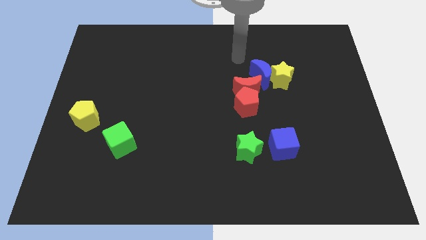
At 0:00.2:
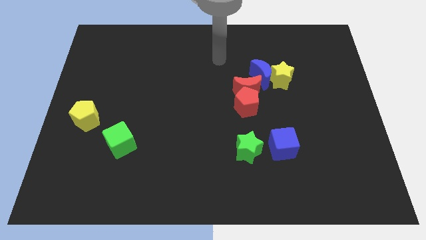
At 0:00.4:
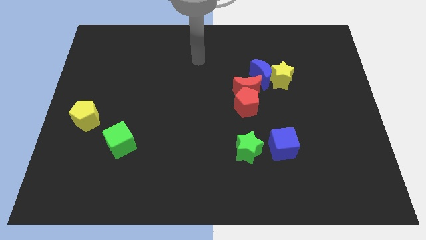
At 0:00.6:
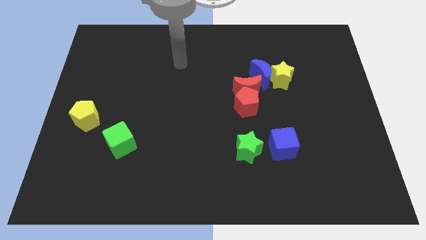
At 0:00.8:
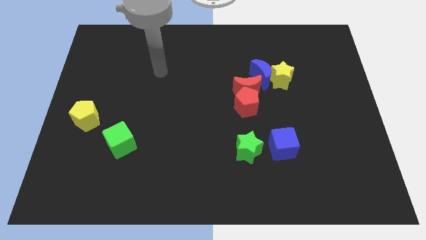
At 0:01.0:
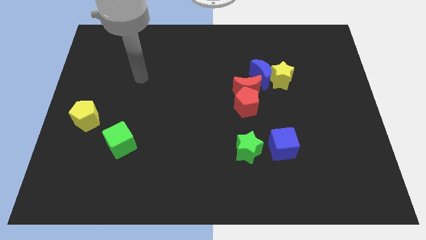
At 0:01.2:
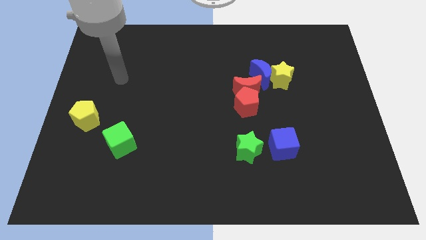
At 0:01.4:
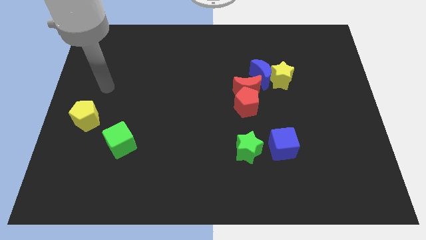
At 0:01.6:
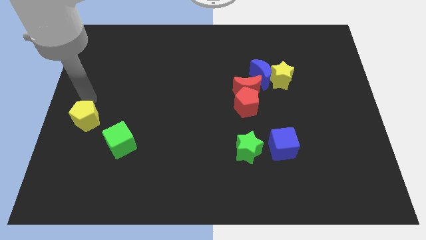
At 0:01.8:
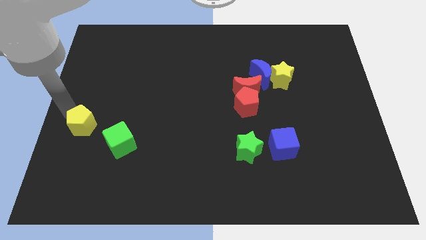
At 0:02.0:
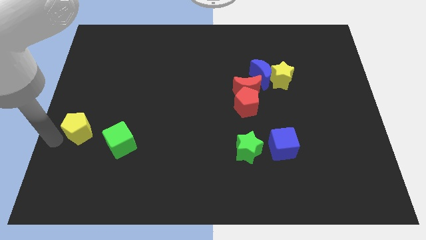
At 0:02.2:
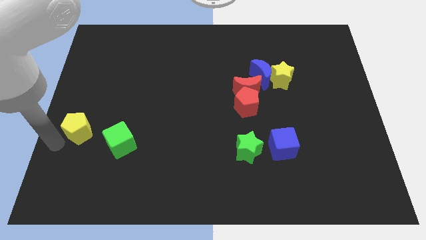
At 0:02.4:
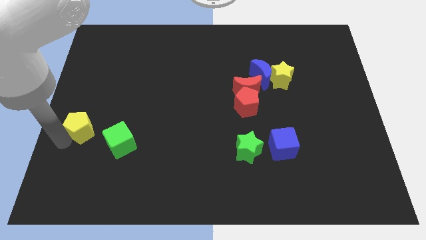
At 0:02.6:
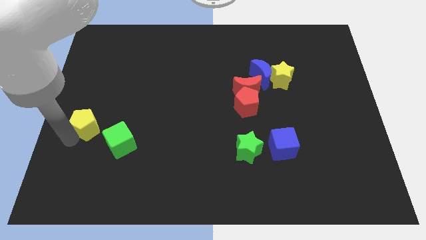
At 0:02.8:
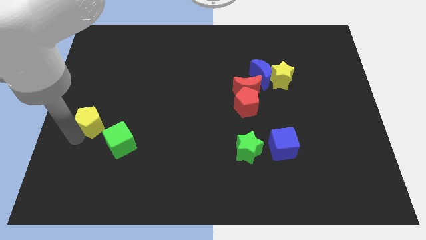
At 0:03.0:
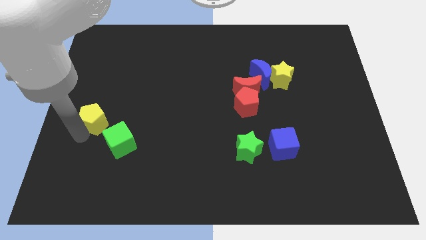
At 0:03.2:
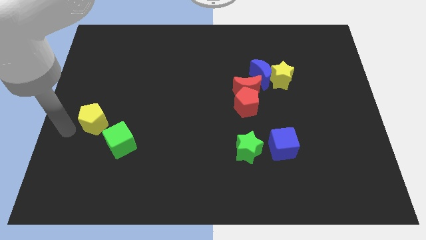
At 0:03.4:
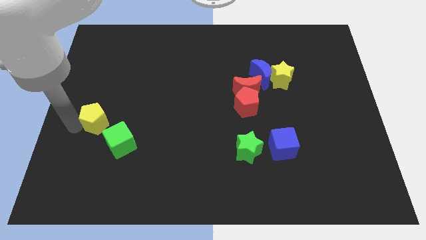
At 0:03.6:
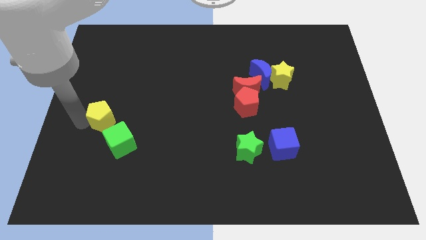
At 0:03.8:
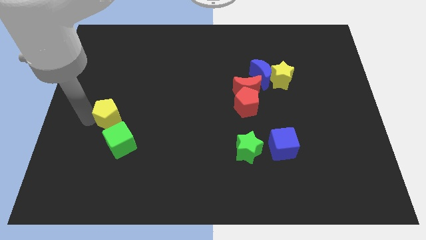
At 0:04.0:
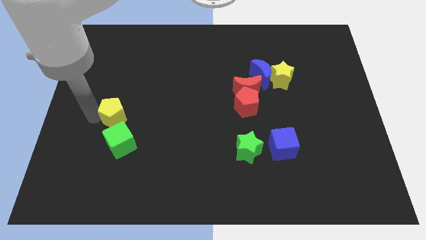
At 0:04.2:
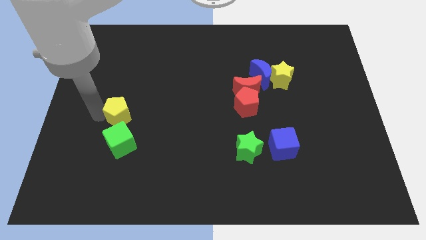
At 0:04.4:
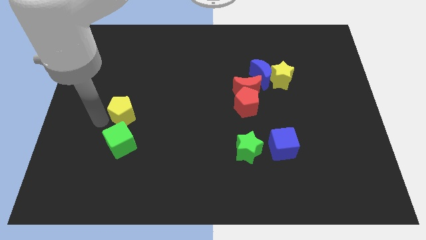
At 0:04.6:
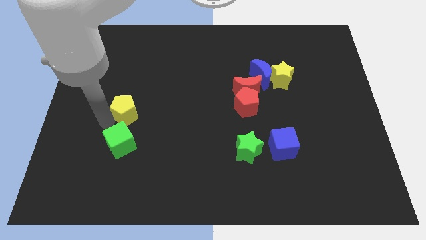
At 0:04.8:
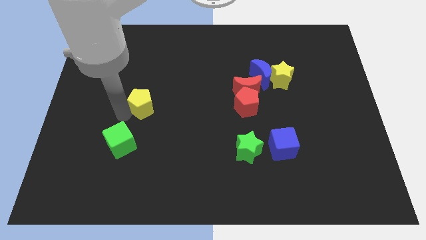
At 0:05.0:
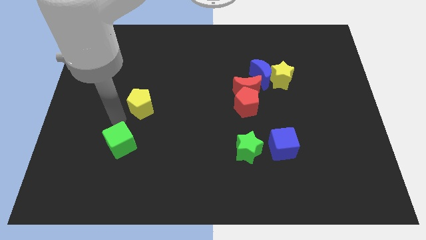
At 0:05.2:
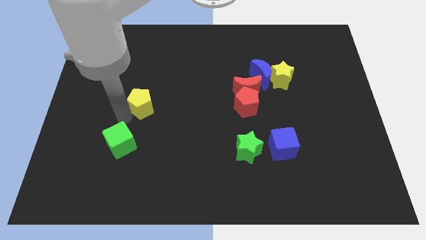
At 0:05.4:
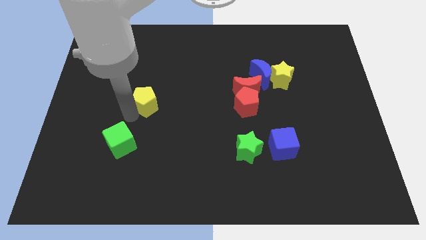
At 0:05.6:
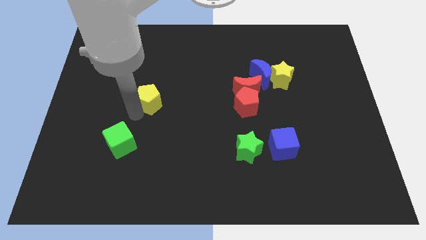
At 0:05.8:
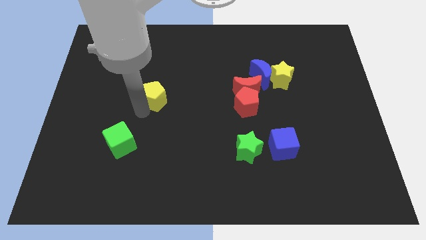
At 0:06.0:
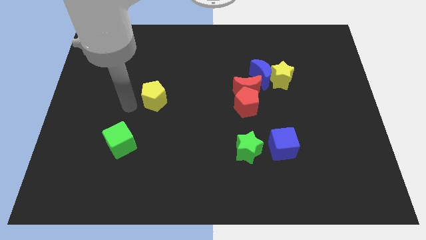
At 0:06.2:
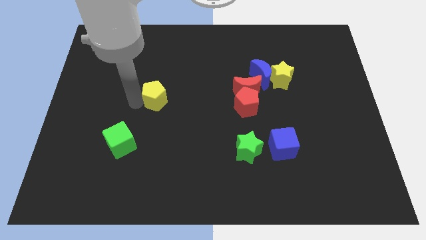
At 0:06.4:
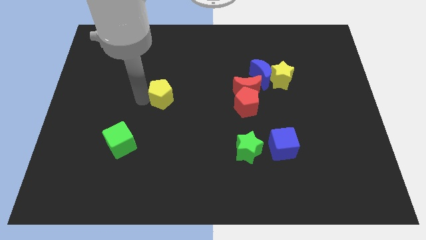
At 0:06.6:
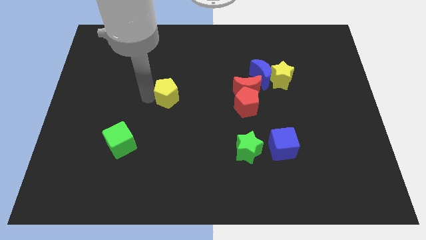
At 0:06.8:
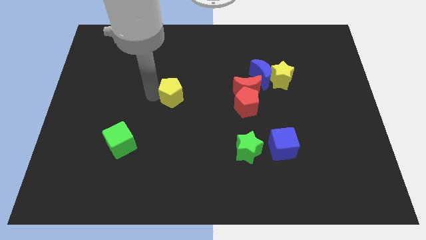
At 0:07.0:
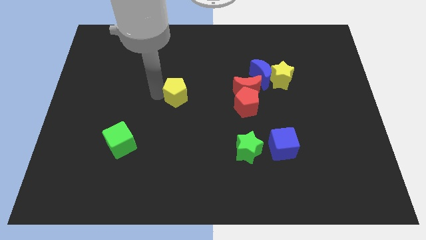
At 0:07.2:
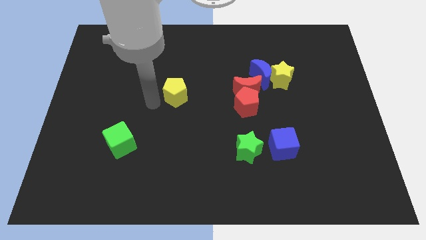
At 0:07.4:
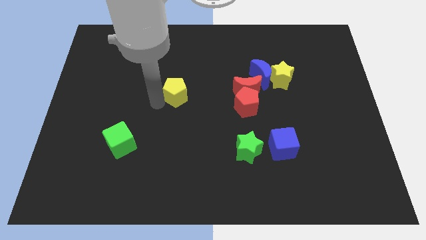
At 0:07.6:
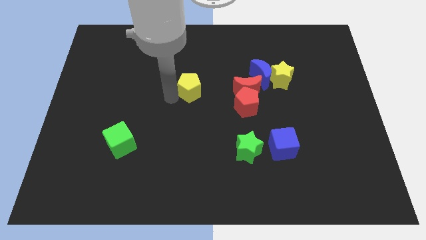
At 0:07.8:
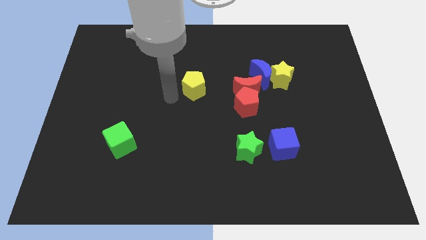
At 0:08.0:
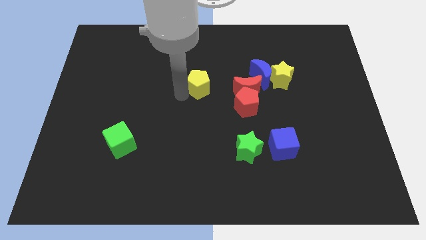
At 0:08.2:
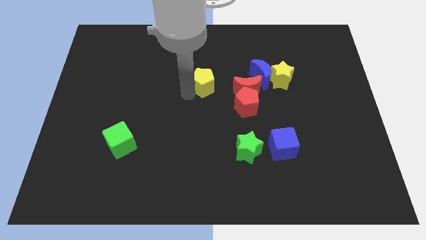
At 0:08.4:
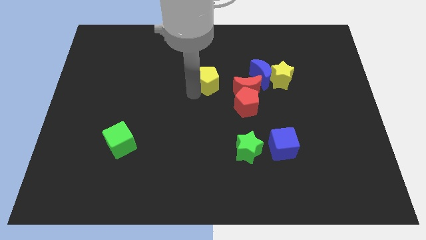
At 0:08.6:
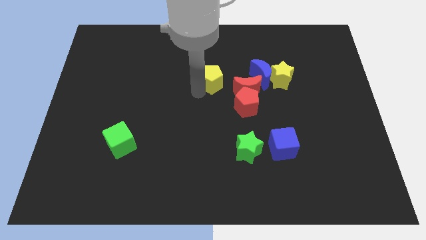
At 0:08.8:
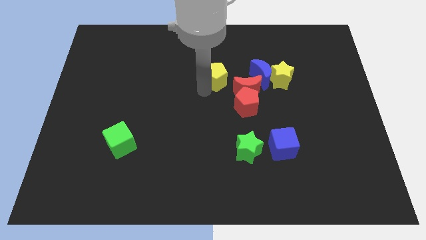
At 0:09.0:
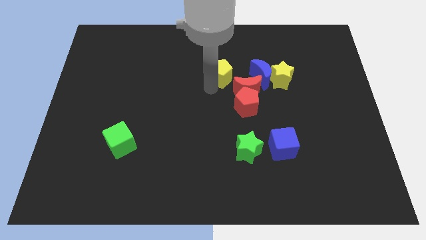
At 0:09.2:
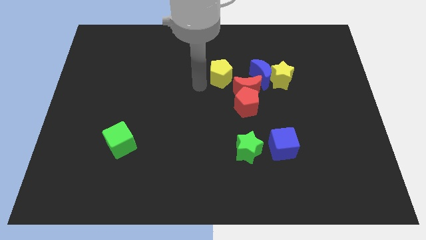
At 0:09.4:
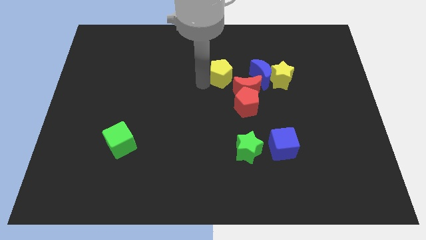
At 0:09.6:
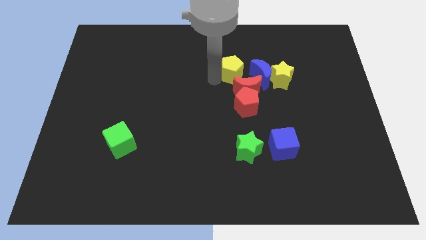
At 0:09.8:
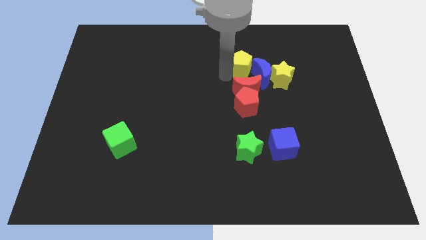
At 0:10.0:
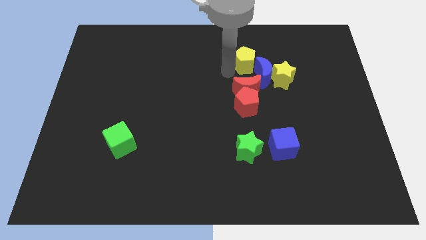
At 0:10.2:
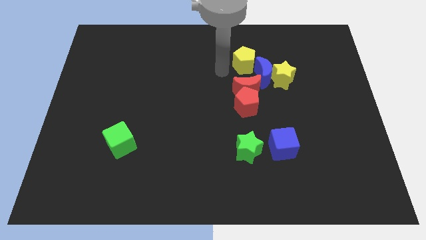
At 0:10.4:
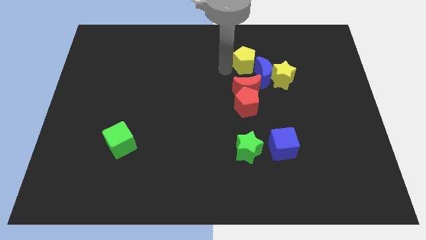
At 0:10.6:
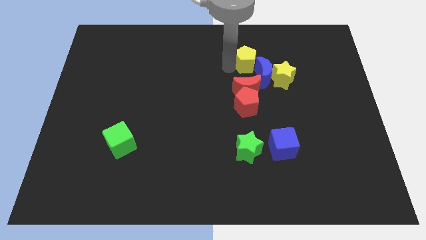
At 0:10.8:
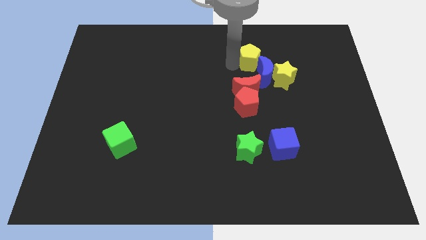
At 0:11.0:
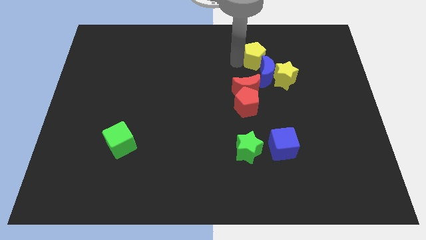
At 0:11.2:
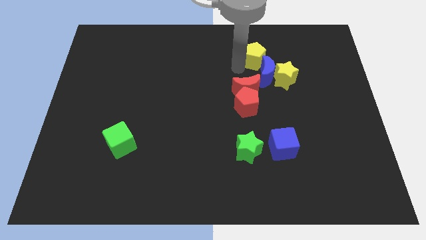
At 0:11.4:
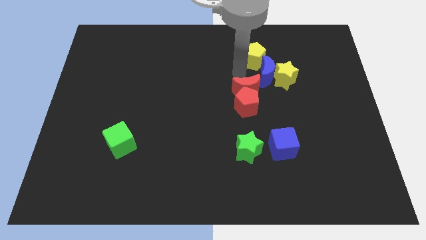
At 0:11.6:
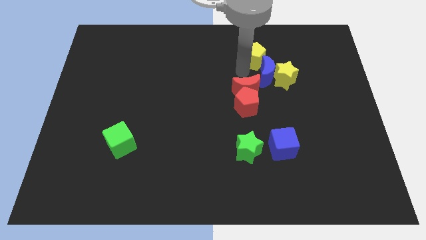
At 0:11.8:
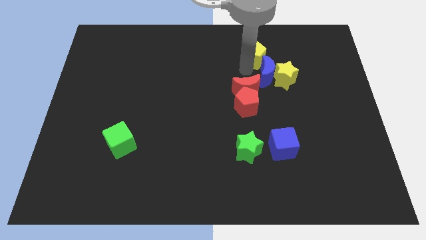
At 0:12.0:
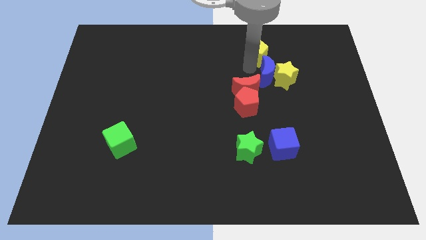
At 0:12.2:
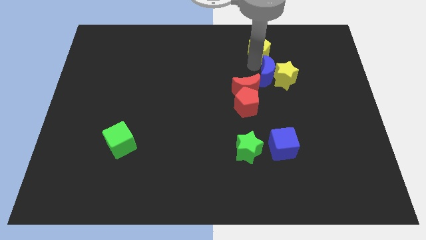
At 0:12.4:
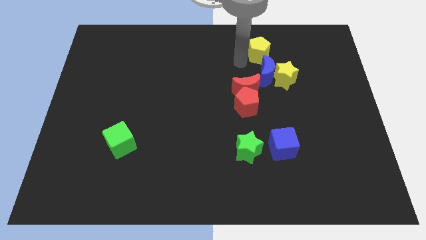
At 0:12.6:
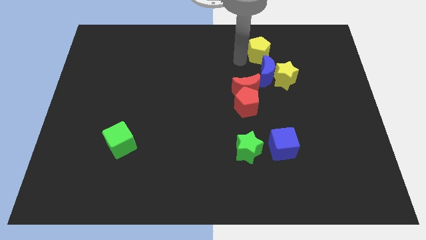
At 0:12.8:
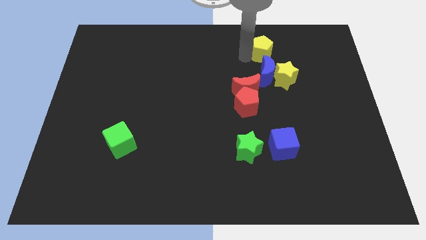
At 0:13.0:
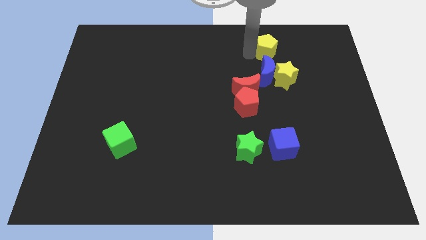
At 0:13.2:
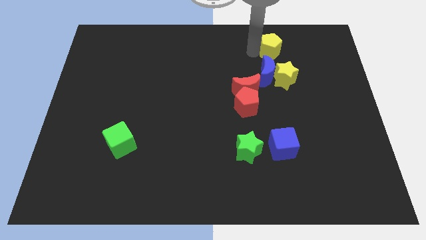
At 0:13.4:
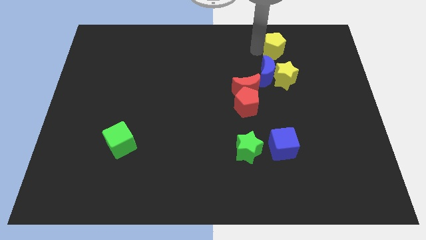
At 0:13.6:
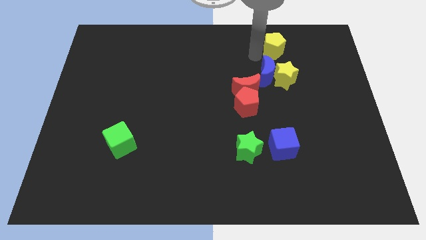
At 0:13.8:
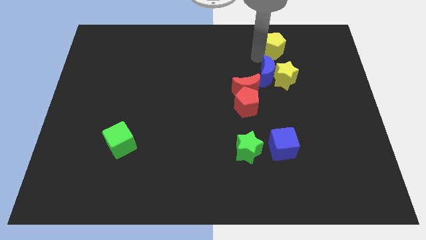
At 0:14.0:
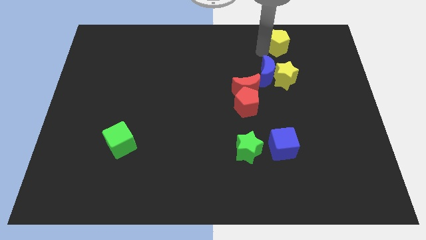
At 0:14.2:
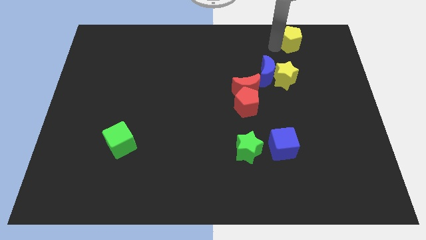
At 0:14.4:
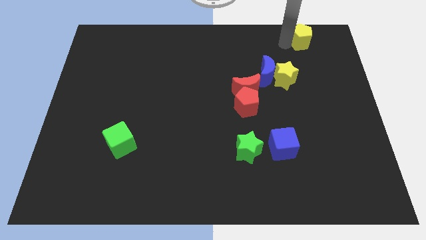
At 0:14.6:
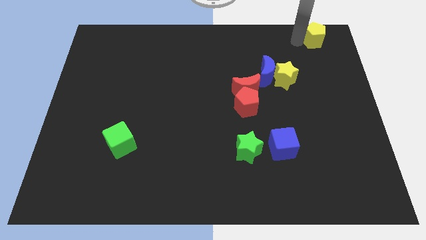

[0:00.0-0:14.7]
push the yellow pentagon to the top right of the board
